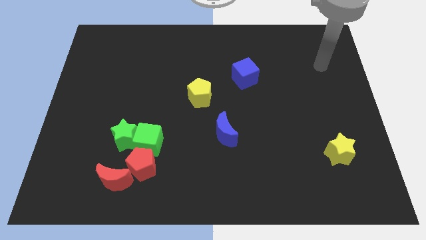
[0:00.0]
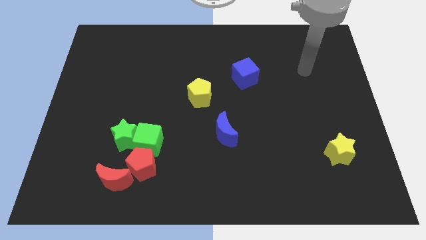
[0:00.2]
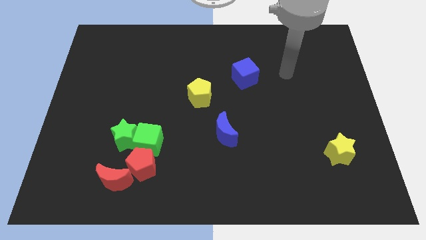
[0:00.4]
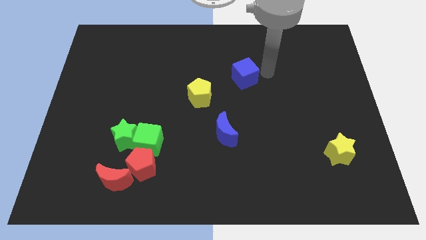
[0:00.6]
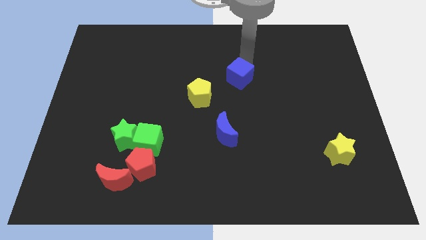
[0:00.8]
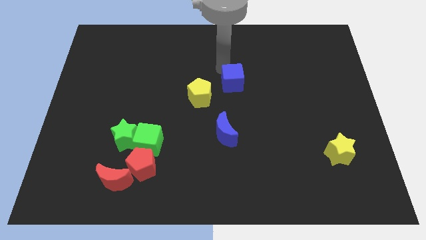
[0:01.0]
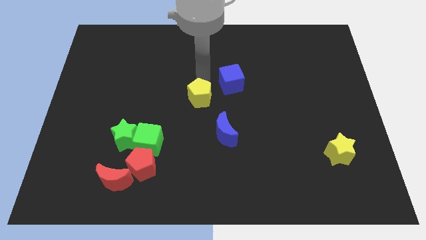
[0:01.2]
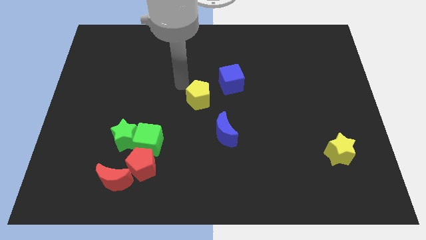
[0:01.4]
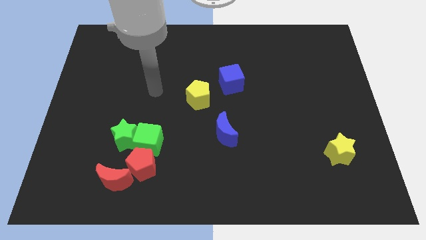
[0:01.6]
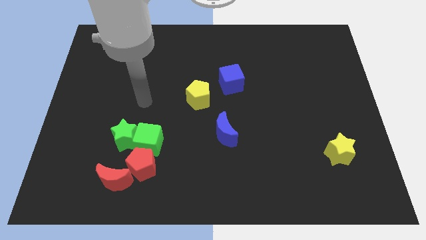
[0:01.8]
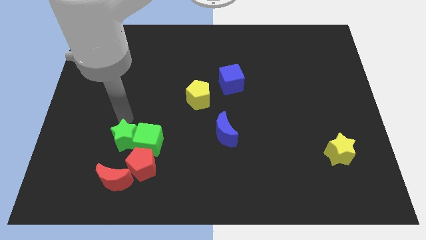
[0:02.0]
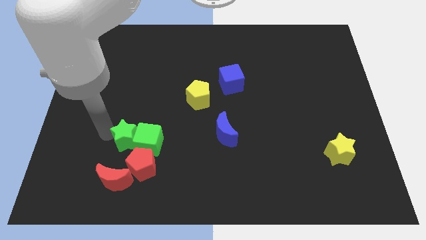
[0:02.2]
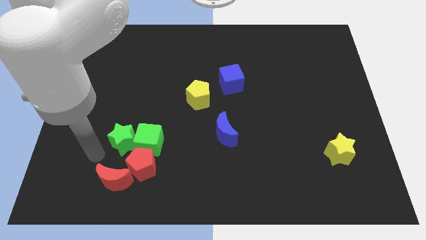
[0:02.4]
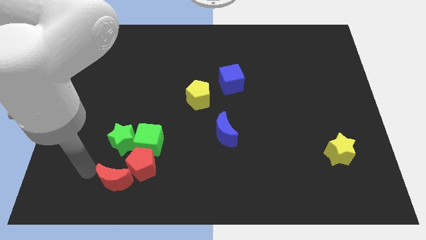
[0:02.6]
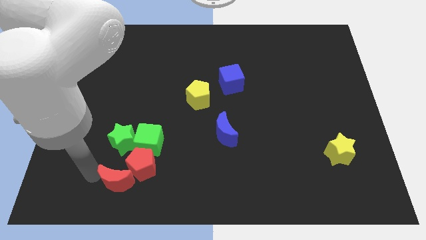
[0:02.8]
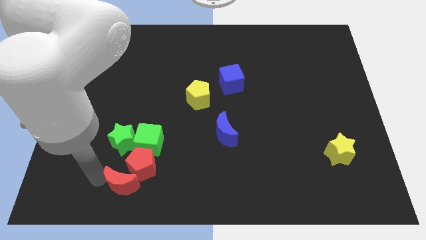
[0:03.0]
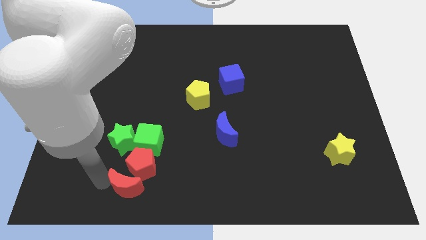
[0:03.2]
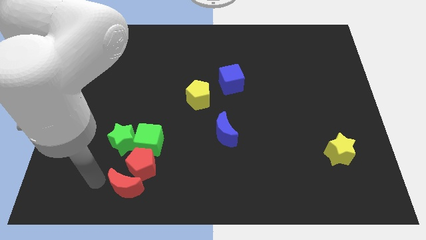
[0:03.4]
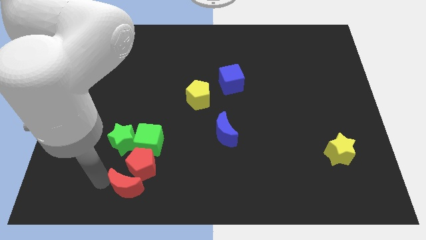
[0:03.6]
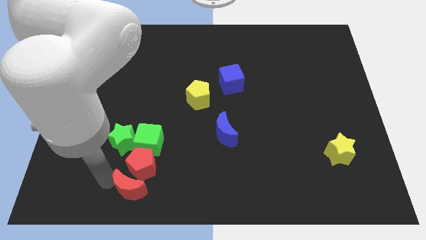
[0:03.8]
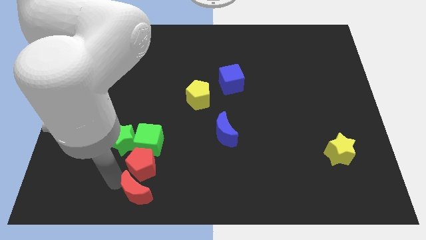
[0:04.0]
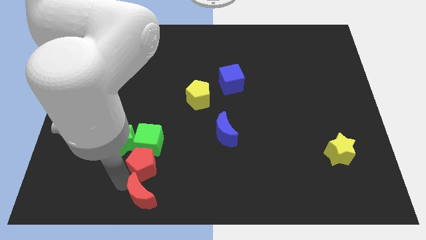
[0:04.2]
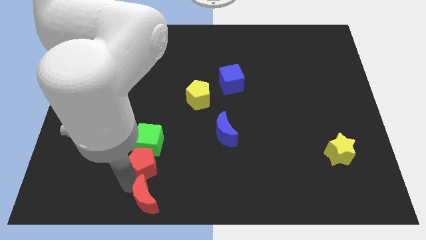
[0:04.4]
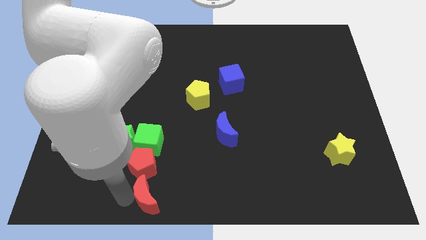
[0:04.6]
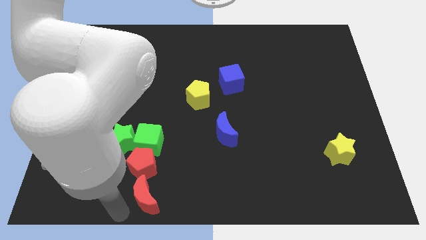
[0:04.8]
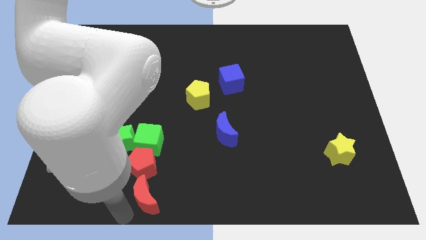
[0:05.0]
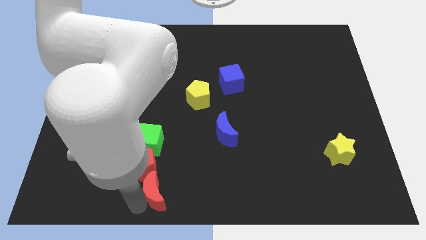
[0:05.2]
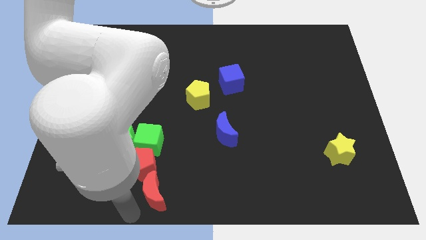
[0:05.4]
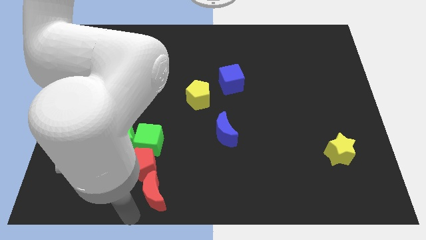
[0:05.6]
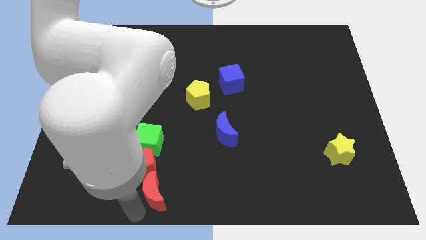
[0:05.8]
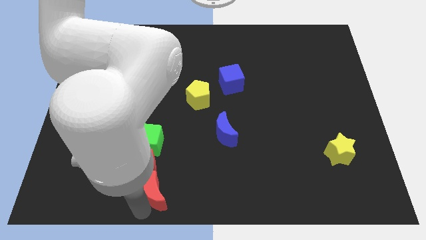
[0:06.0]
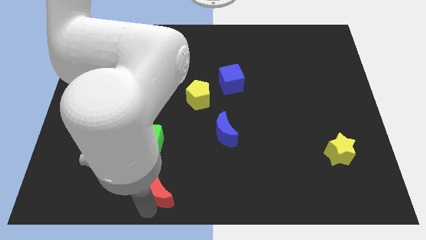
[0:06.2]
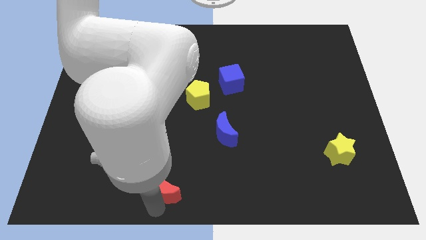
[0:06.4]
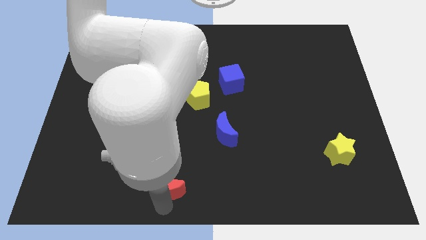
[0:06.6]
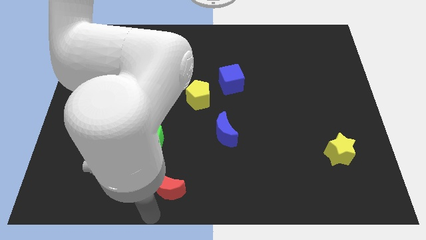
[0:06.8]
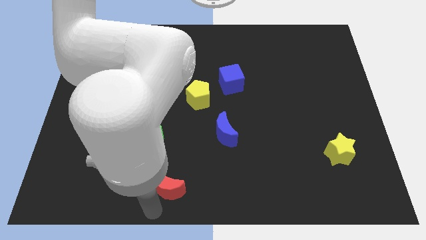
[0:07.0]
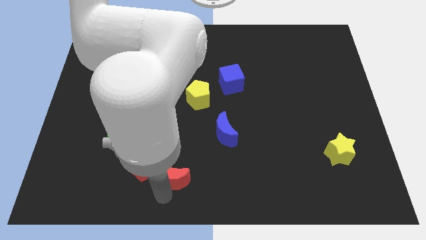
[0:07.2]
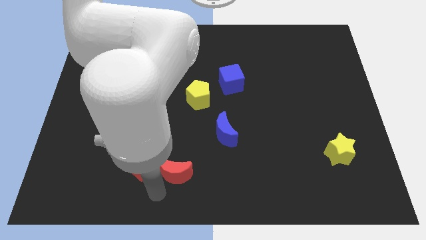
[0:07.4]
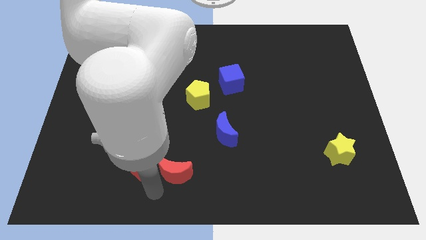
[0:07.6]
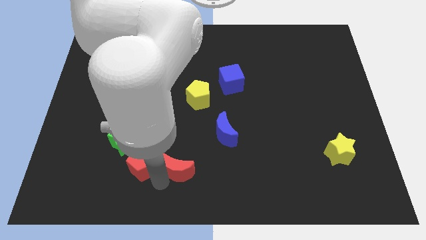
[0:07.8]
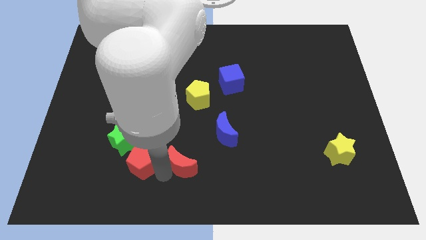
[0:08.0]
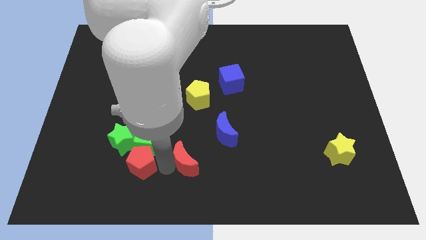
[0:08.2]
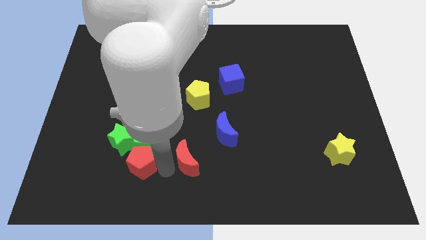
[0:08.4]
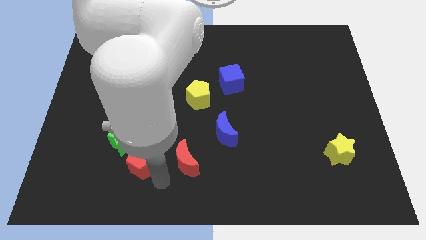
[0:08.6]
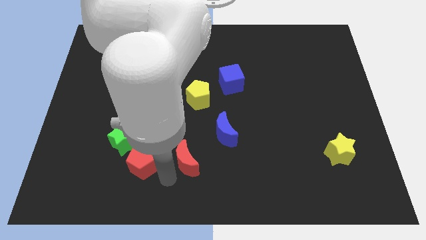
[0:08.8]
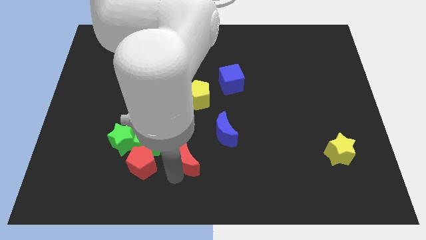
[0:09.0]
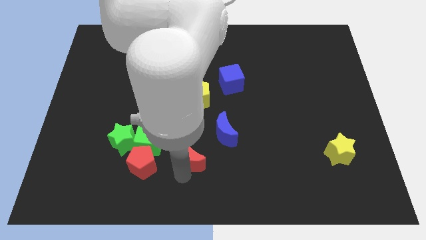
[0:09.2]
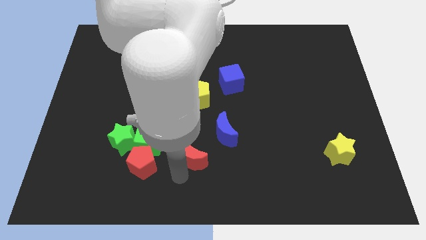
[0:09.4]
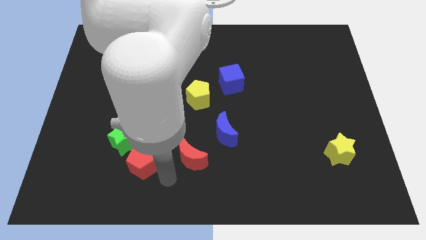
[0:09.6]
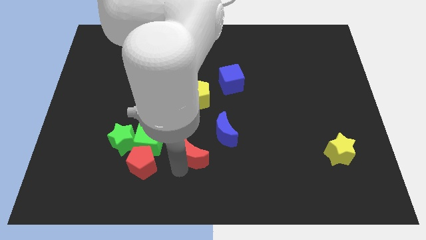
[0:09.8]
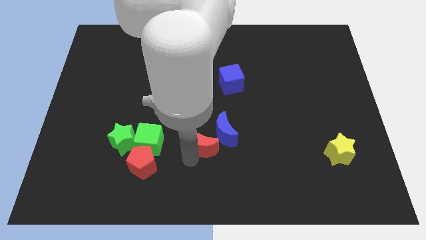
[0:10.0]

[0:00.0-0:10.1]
move the red moon close to the blue moon

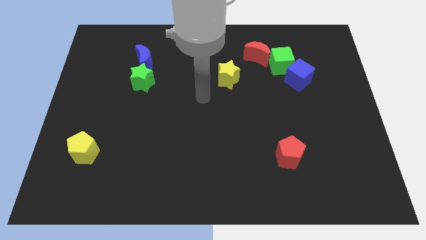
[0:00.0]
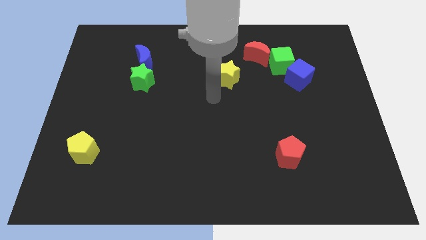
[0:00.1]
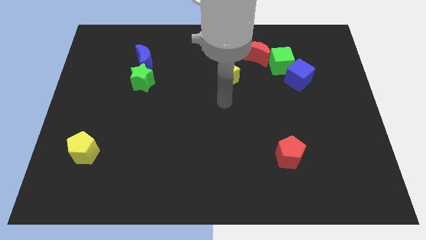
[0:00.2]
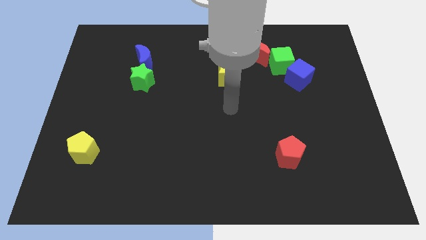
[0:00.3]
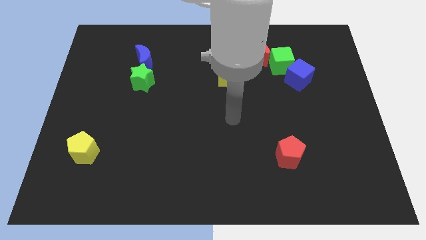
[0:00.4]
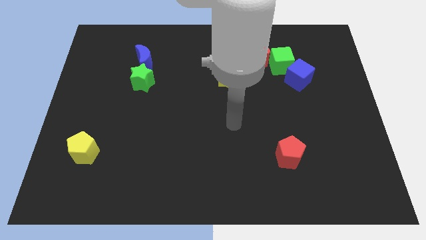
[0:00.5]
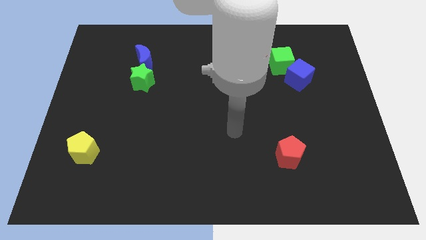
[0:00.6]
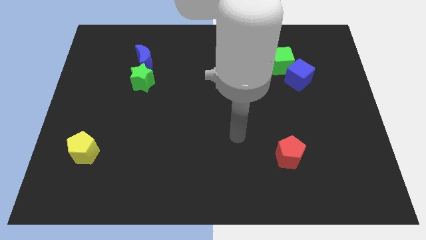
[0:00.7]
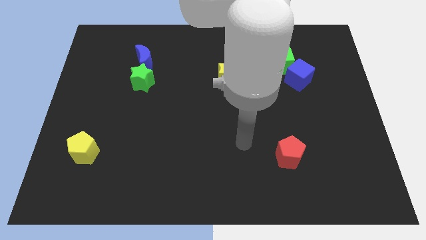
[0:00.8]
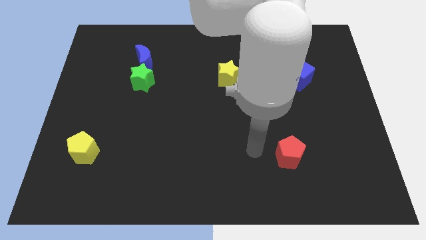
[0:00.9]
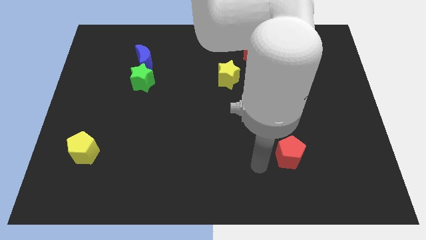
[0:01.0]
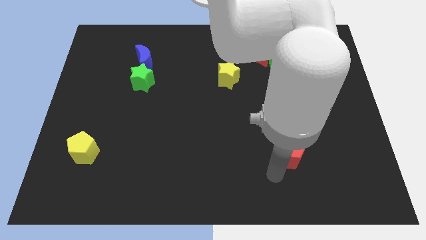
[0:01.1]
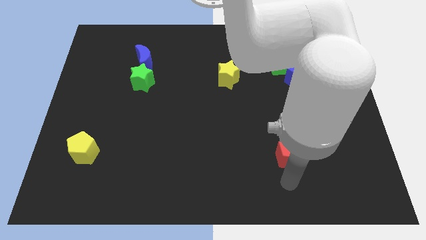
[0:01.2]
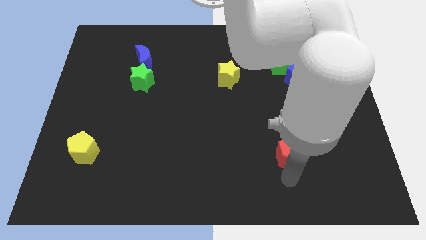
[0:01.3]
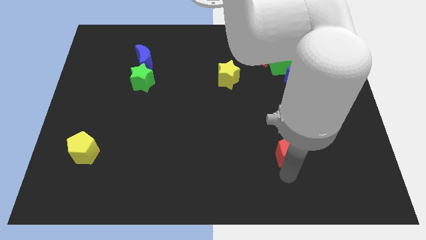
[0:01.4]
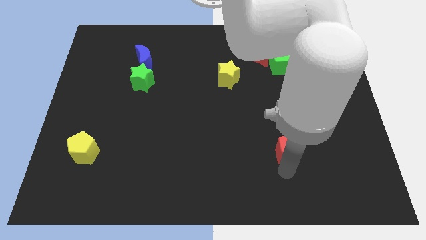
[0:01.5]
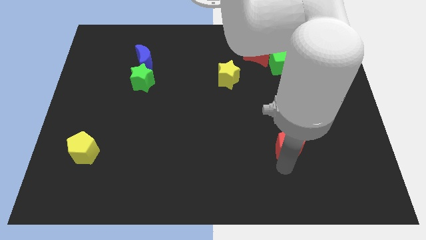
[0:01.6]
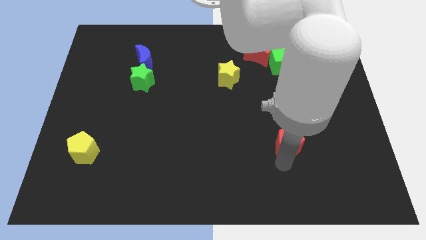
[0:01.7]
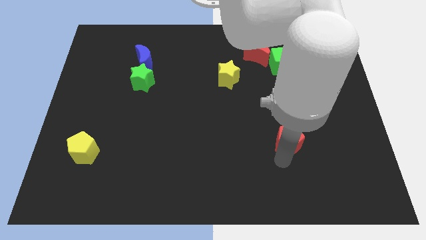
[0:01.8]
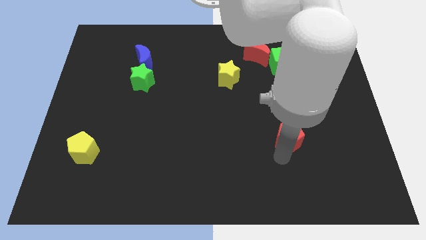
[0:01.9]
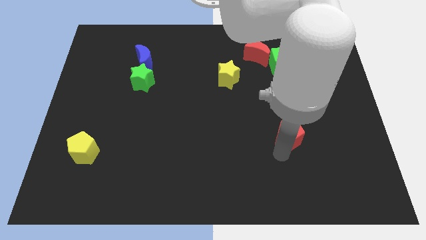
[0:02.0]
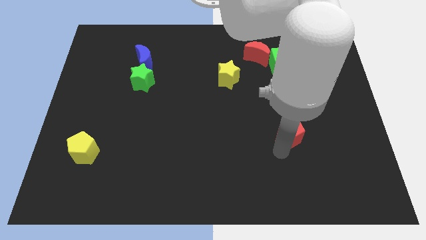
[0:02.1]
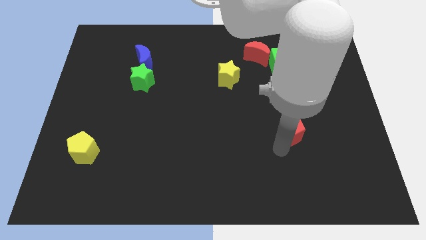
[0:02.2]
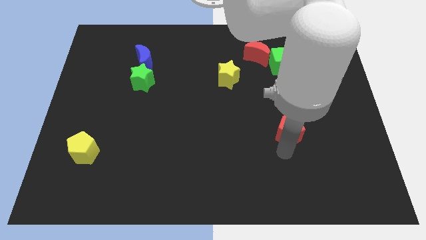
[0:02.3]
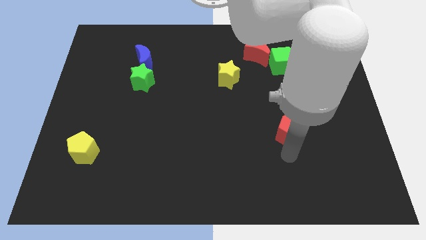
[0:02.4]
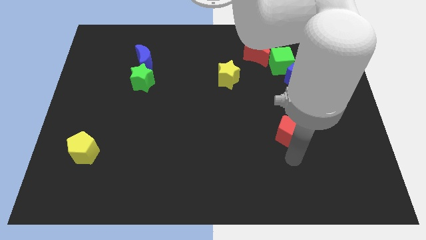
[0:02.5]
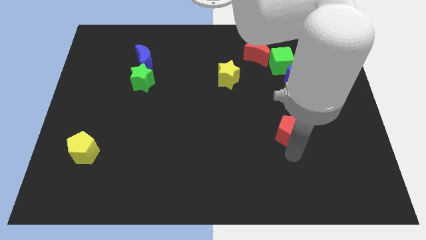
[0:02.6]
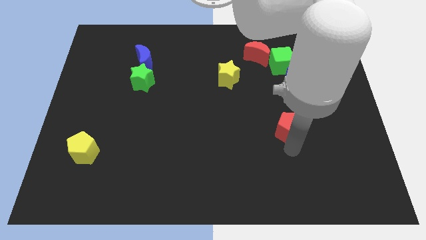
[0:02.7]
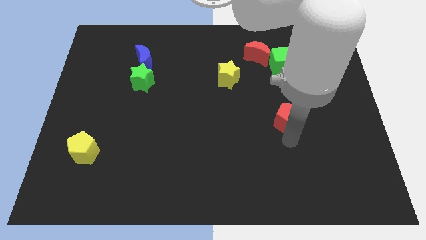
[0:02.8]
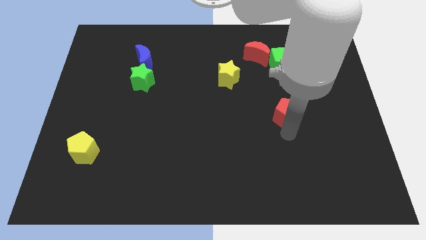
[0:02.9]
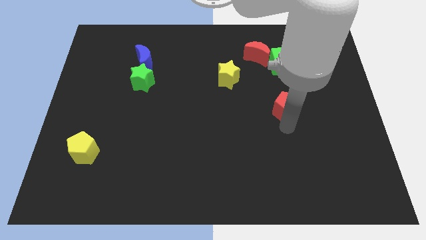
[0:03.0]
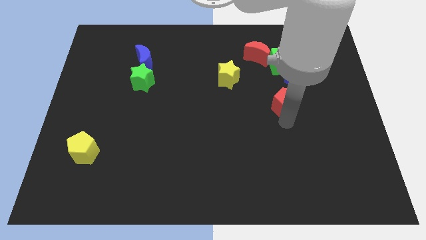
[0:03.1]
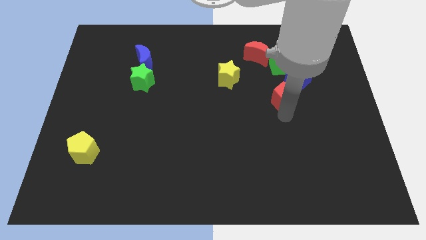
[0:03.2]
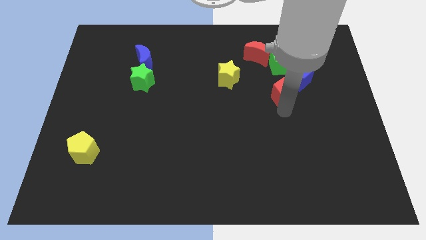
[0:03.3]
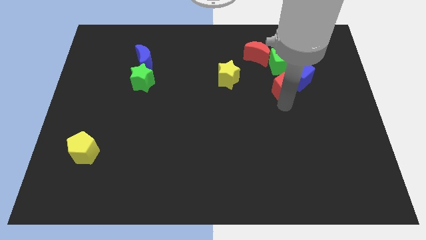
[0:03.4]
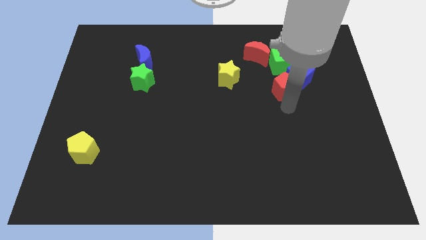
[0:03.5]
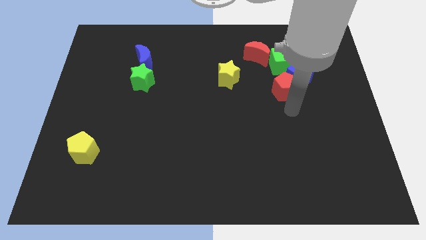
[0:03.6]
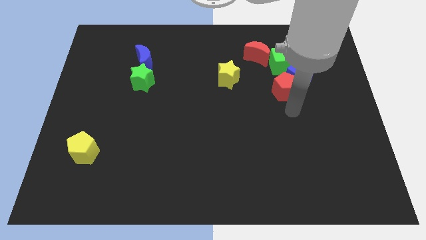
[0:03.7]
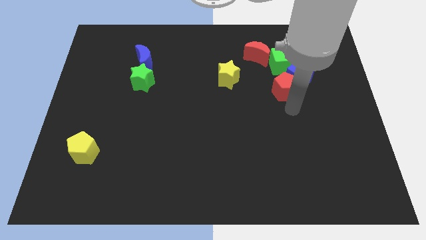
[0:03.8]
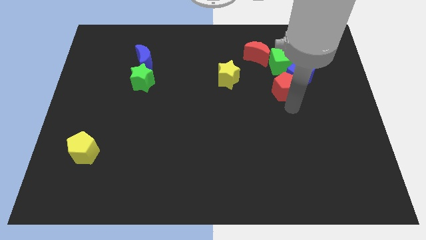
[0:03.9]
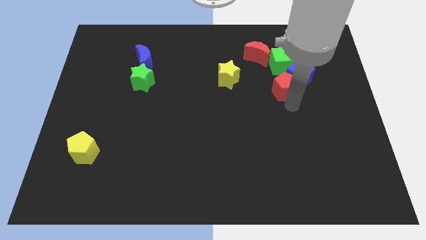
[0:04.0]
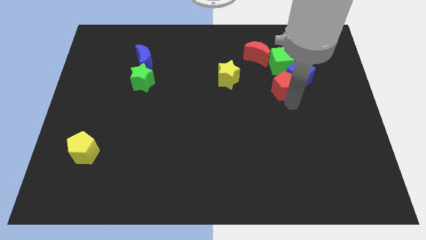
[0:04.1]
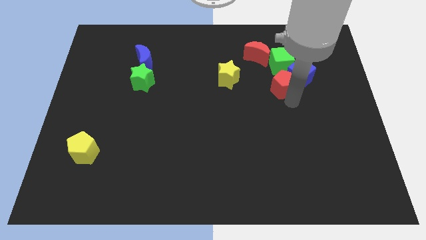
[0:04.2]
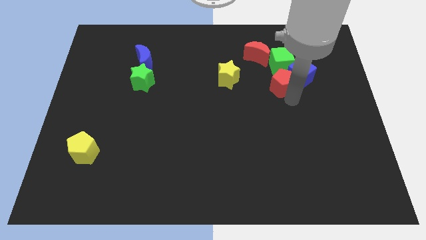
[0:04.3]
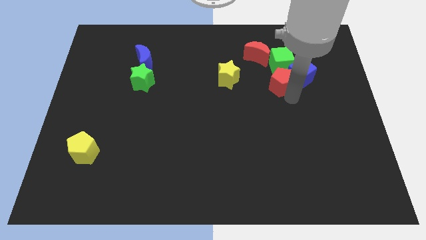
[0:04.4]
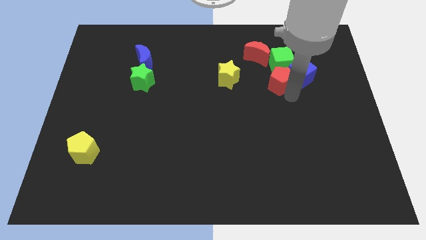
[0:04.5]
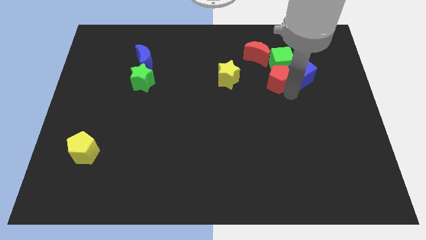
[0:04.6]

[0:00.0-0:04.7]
move the red pentagon next to the green cube
